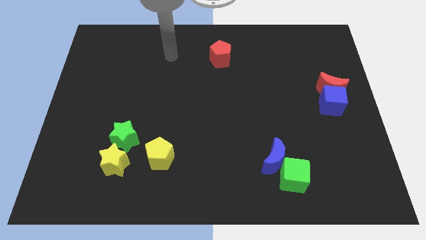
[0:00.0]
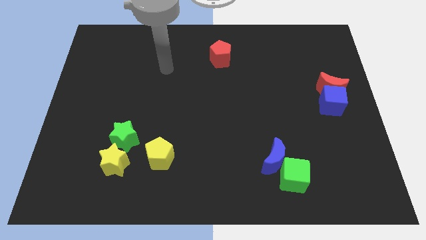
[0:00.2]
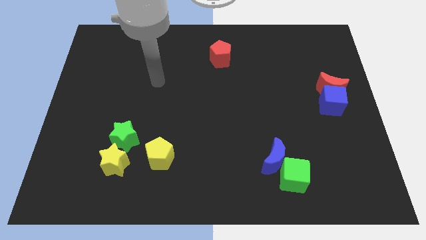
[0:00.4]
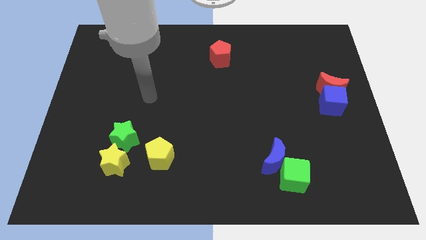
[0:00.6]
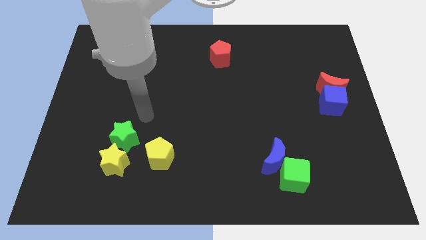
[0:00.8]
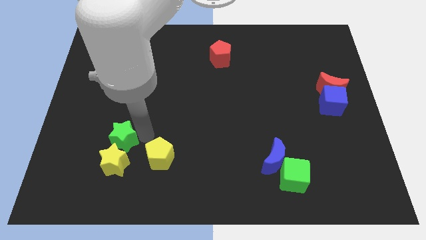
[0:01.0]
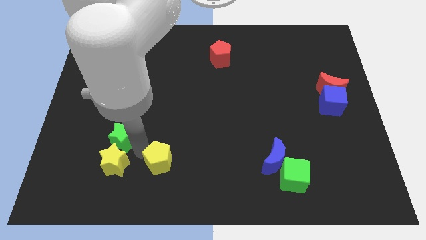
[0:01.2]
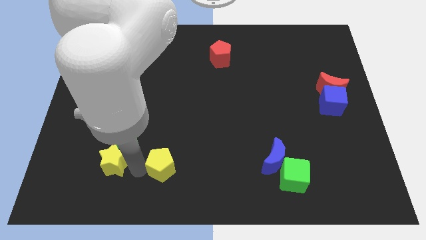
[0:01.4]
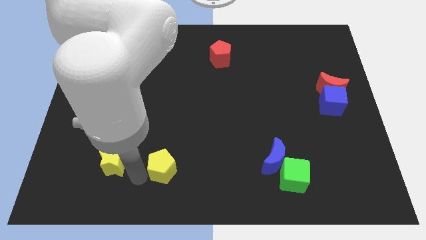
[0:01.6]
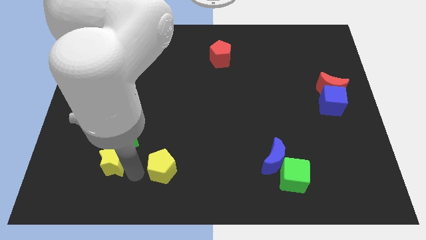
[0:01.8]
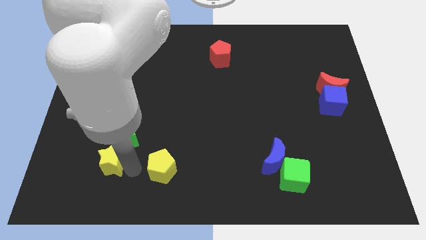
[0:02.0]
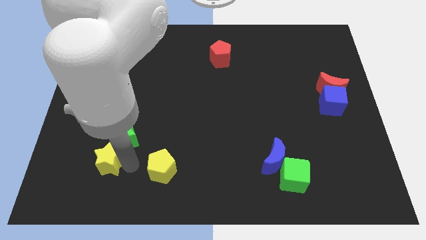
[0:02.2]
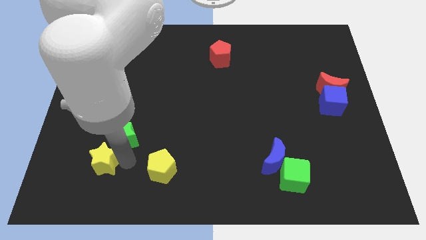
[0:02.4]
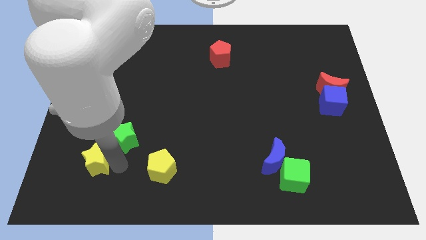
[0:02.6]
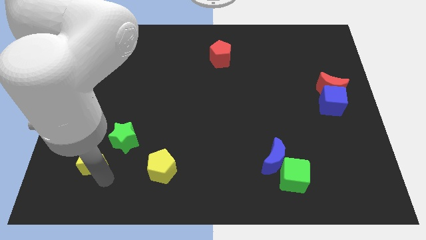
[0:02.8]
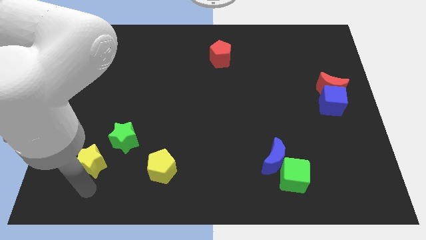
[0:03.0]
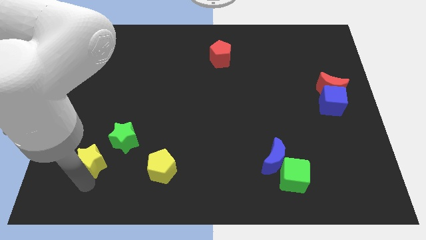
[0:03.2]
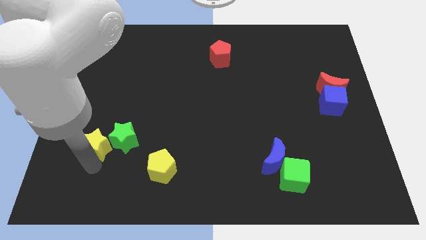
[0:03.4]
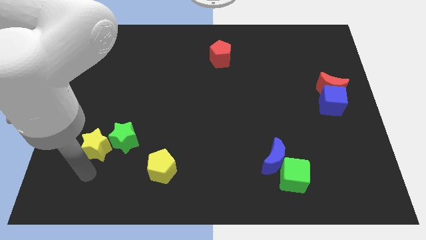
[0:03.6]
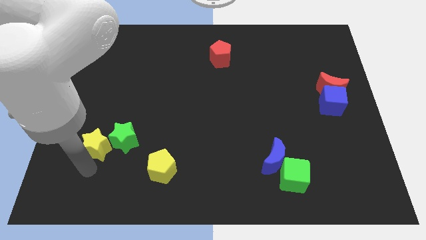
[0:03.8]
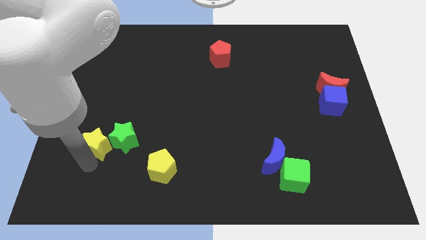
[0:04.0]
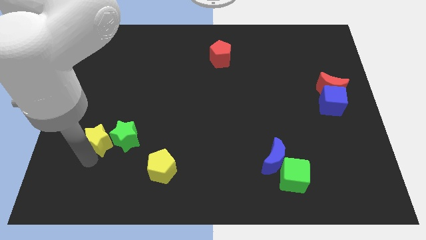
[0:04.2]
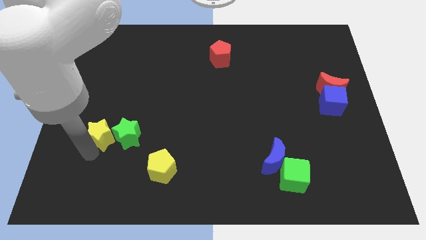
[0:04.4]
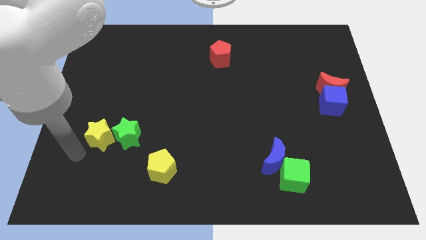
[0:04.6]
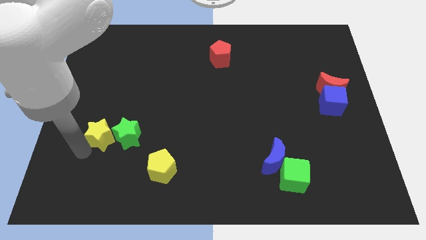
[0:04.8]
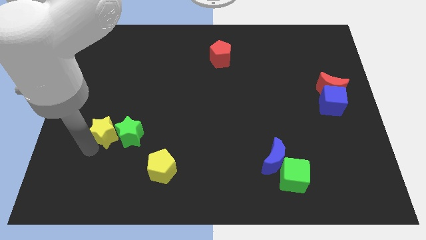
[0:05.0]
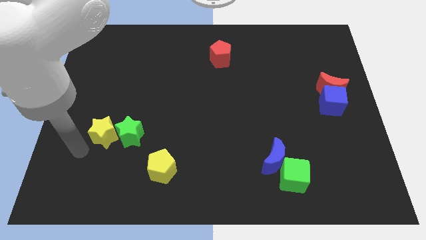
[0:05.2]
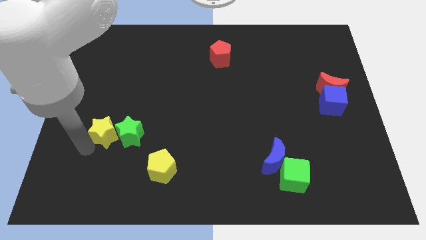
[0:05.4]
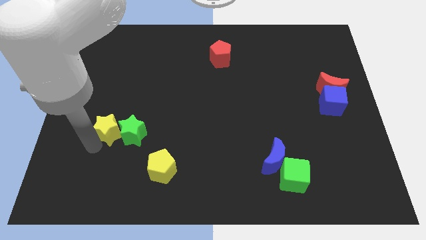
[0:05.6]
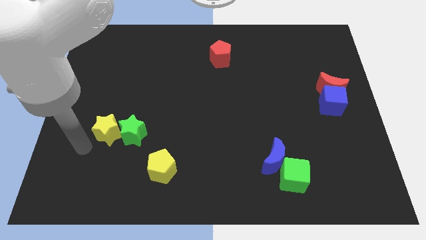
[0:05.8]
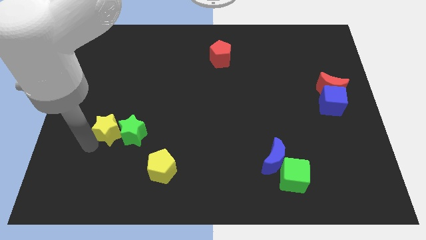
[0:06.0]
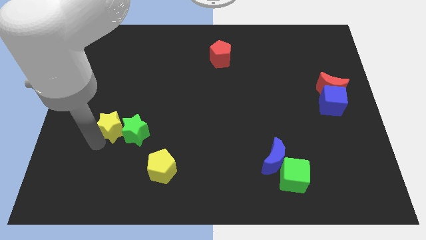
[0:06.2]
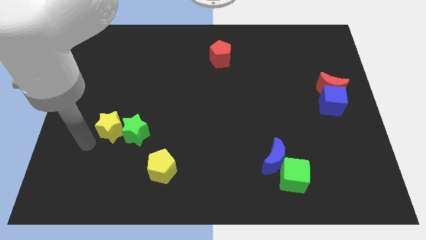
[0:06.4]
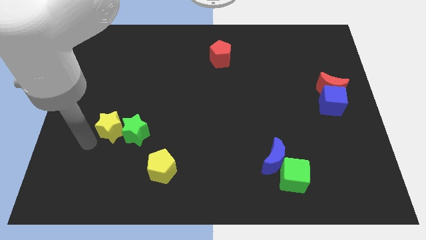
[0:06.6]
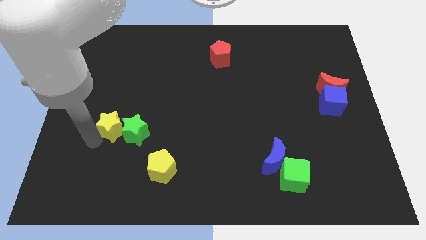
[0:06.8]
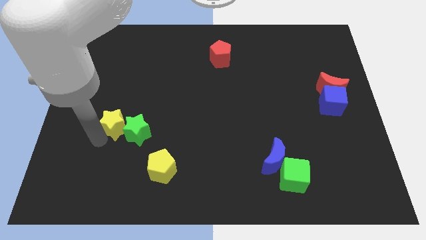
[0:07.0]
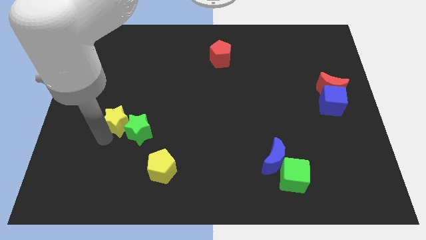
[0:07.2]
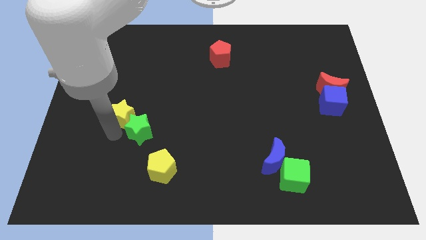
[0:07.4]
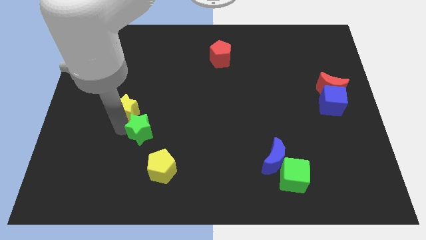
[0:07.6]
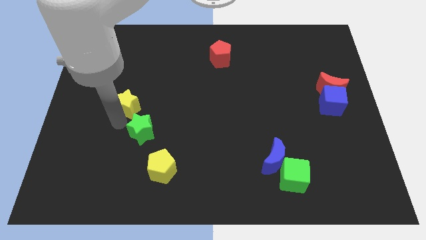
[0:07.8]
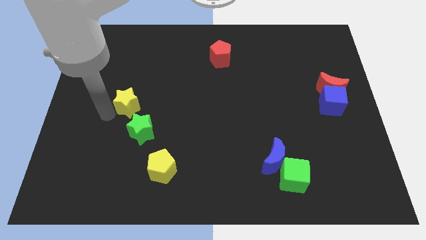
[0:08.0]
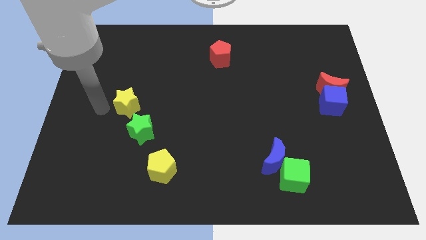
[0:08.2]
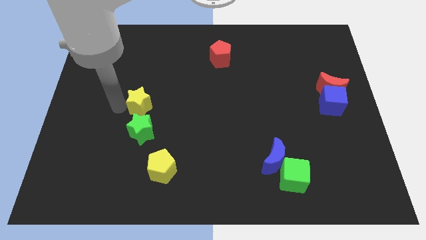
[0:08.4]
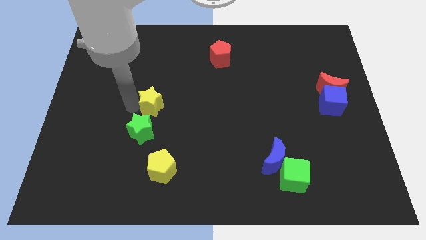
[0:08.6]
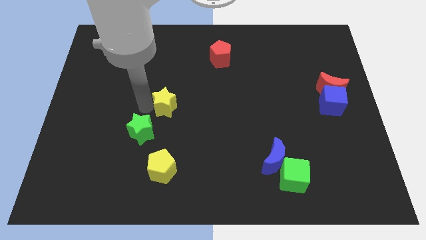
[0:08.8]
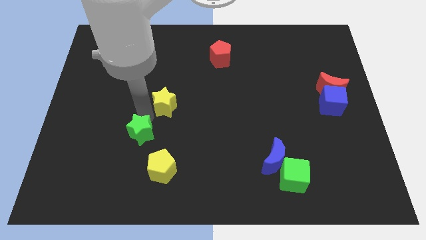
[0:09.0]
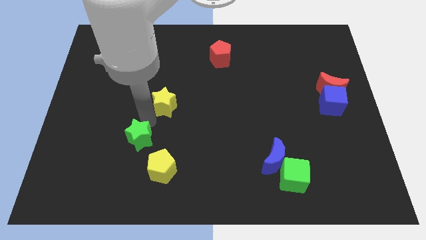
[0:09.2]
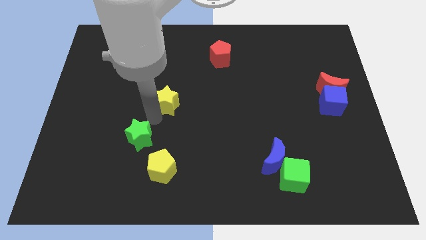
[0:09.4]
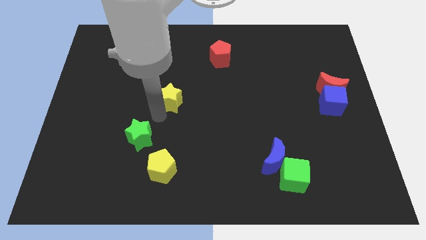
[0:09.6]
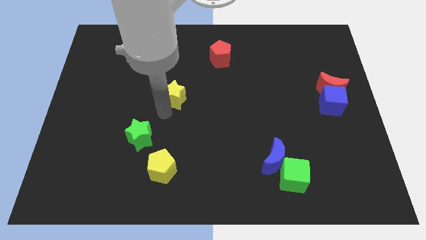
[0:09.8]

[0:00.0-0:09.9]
push the yellow star up and then to the right

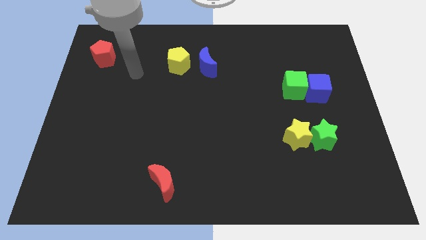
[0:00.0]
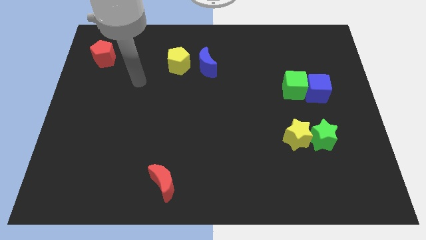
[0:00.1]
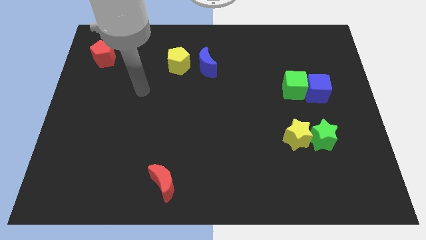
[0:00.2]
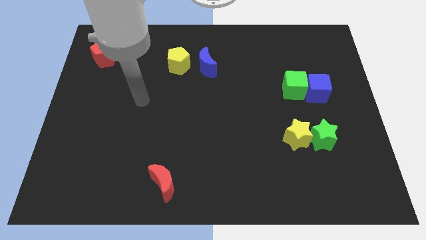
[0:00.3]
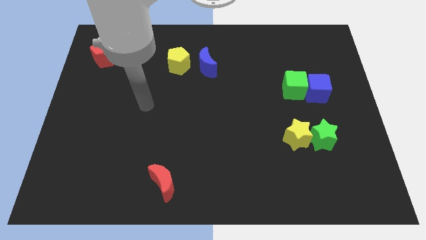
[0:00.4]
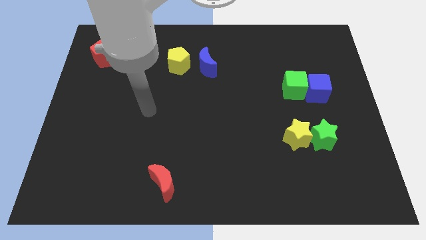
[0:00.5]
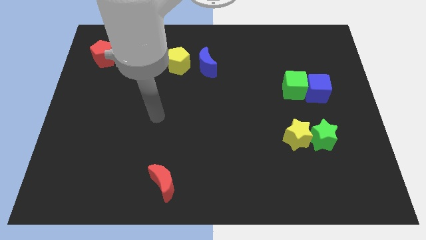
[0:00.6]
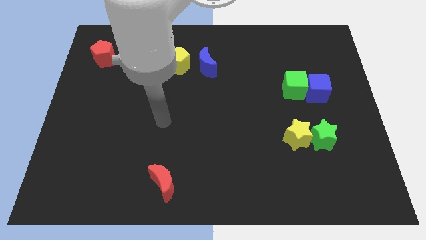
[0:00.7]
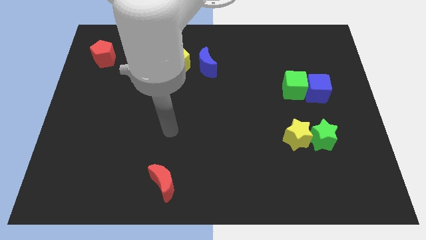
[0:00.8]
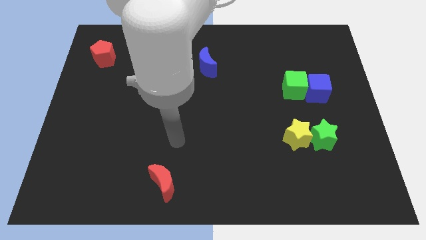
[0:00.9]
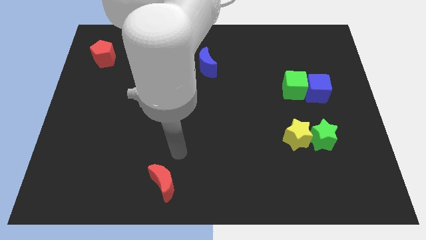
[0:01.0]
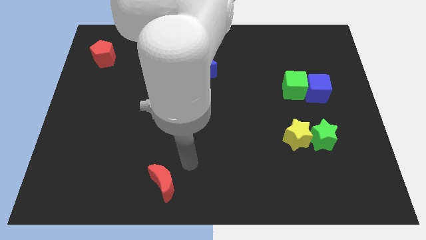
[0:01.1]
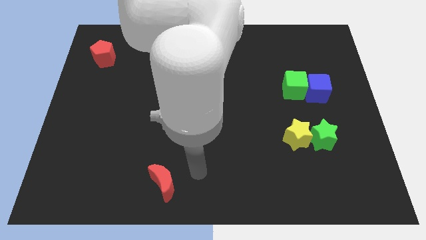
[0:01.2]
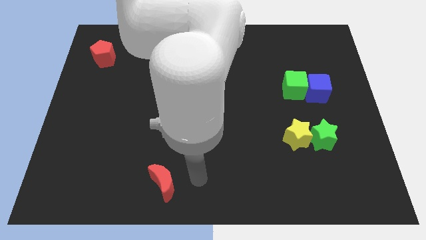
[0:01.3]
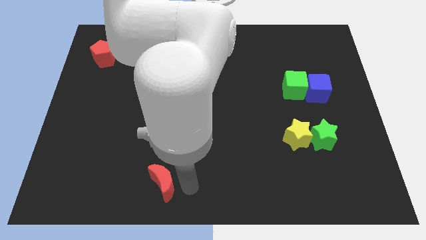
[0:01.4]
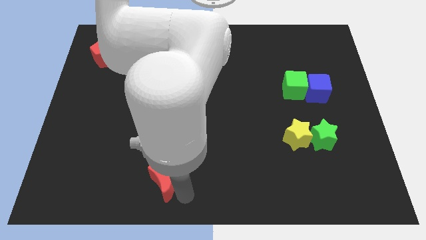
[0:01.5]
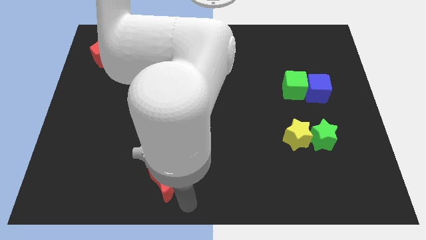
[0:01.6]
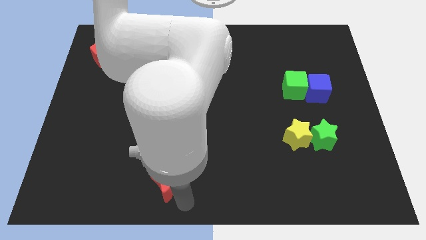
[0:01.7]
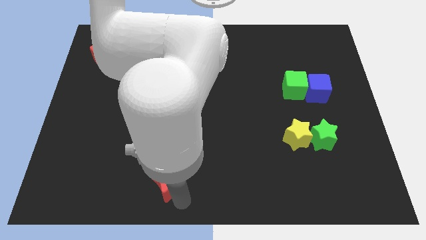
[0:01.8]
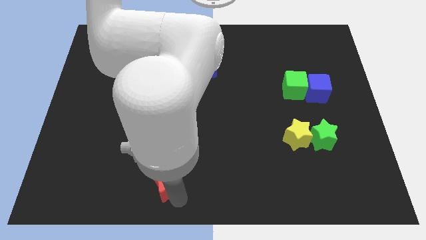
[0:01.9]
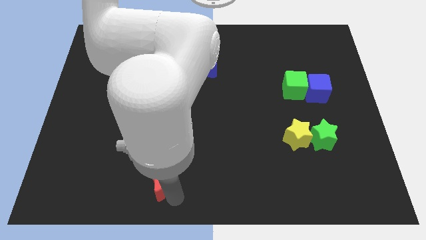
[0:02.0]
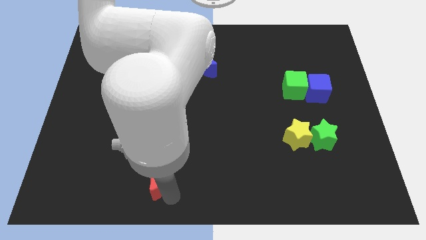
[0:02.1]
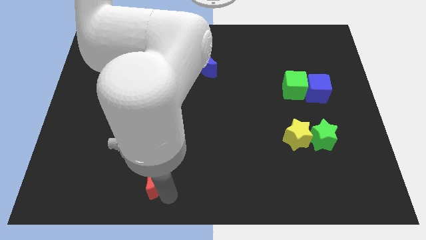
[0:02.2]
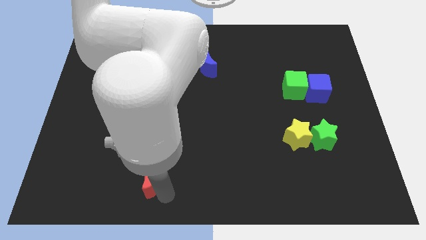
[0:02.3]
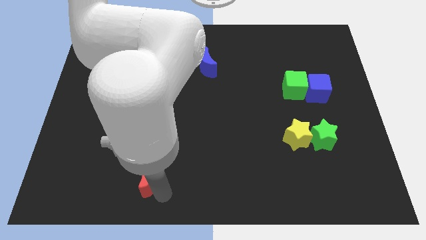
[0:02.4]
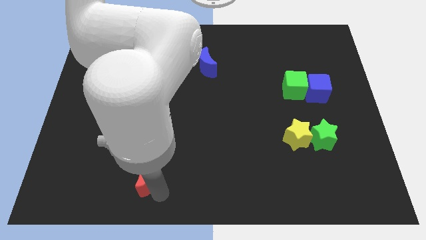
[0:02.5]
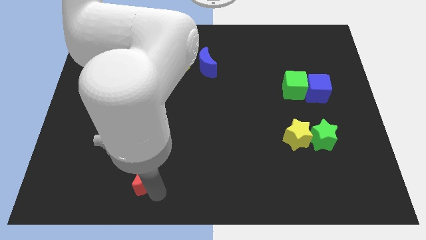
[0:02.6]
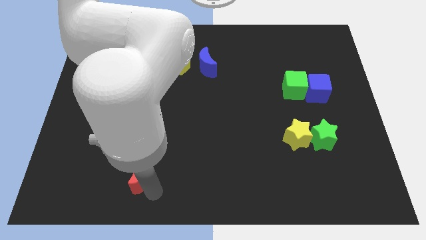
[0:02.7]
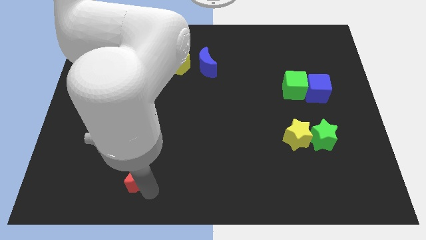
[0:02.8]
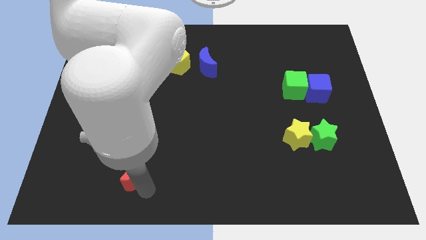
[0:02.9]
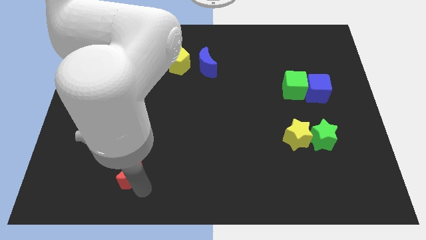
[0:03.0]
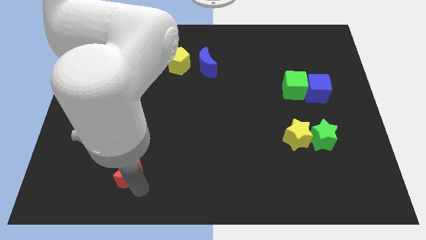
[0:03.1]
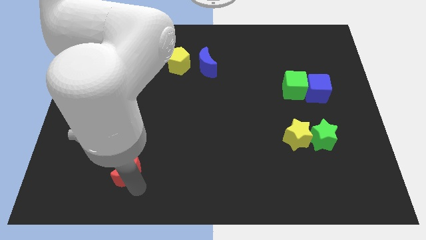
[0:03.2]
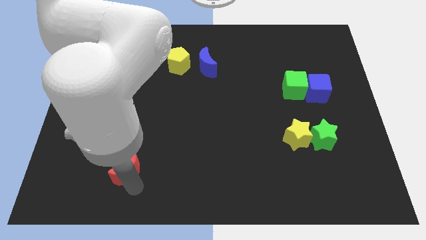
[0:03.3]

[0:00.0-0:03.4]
slide the red moon somewhat diagonally up and to the left
